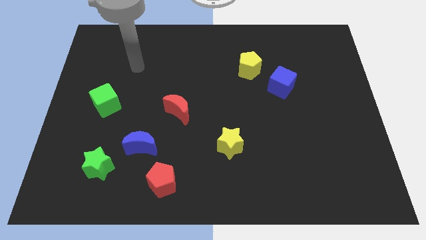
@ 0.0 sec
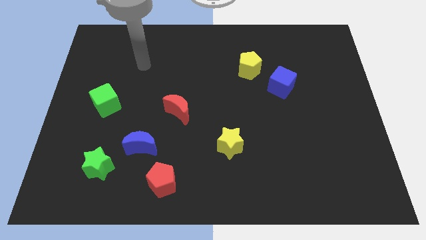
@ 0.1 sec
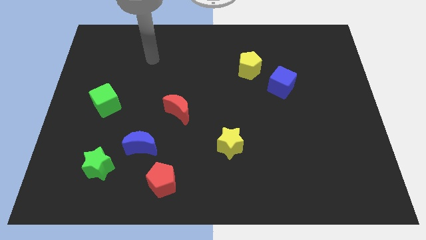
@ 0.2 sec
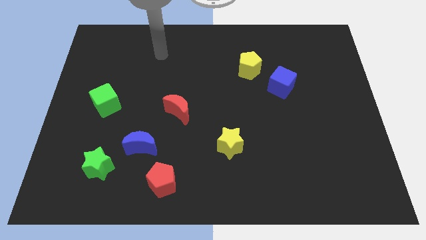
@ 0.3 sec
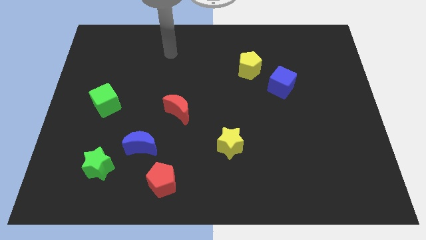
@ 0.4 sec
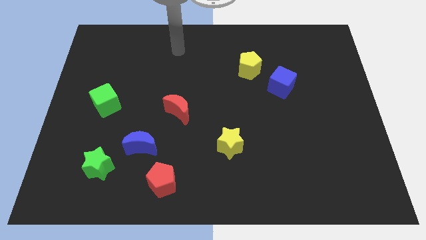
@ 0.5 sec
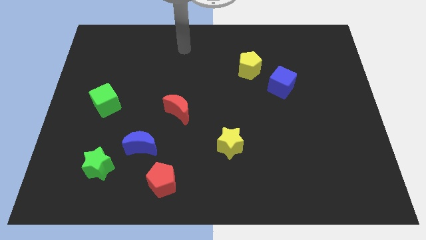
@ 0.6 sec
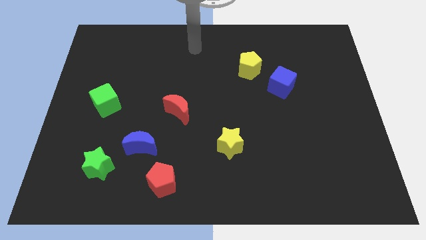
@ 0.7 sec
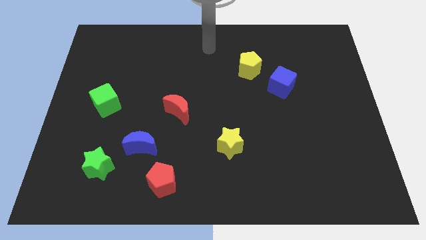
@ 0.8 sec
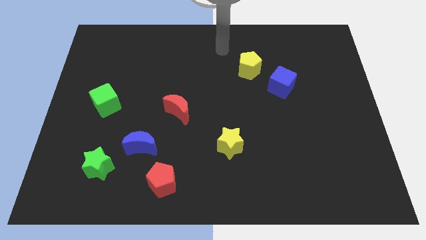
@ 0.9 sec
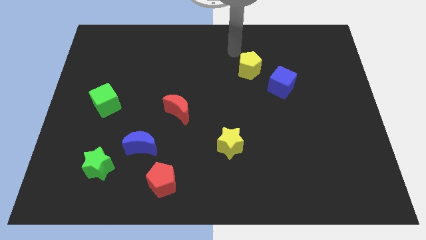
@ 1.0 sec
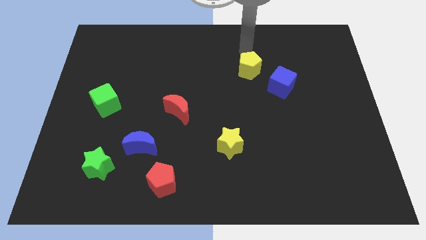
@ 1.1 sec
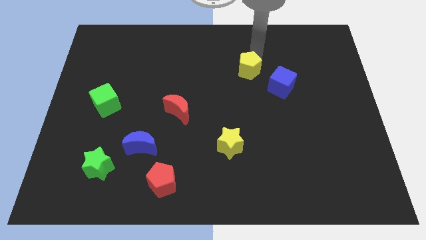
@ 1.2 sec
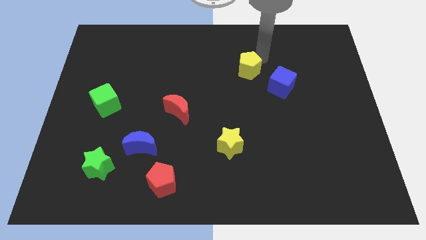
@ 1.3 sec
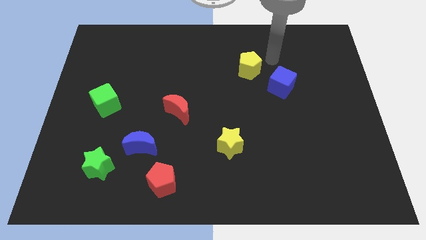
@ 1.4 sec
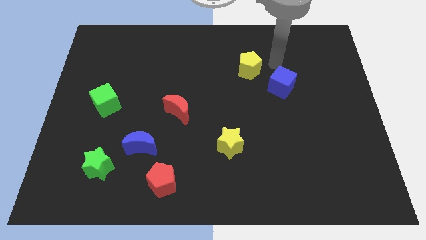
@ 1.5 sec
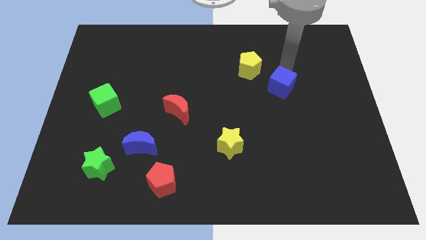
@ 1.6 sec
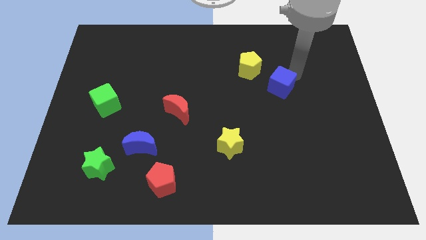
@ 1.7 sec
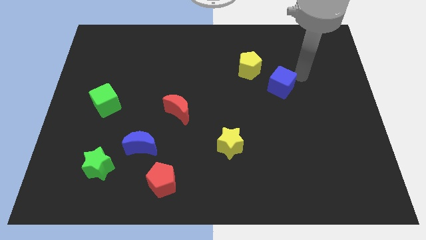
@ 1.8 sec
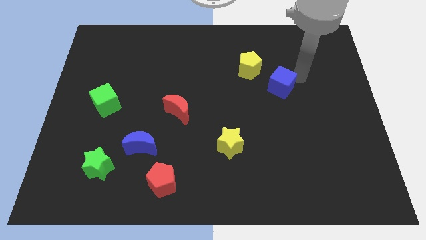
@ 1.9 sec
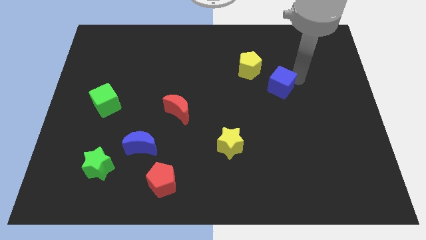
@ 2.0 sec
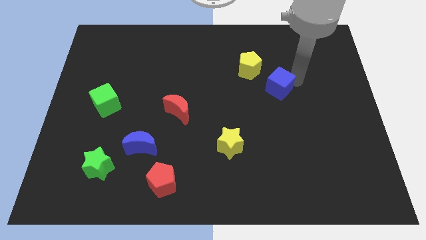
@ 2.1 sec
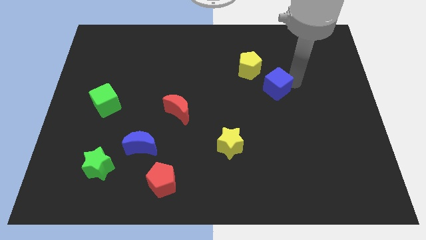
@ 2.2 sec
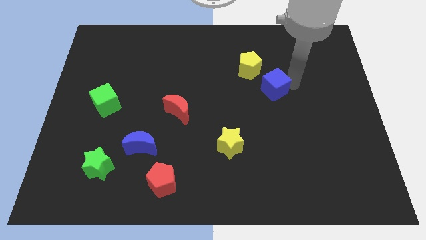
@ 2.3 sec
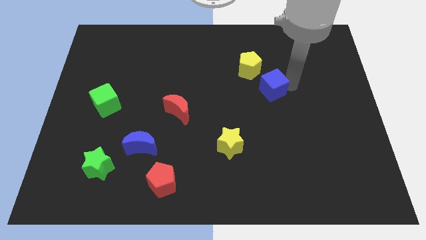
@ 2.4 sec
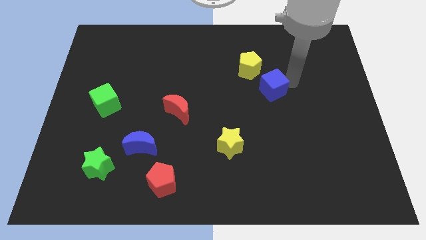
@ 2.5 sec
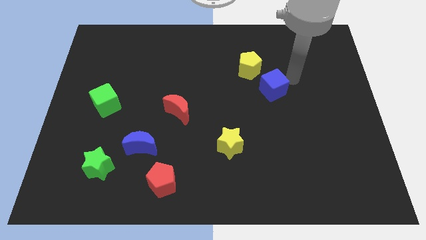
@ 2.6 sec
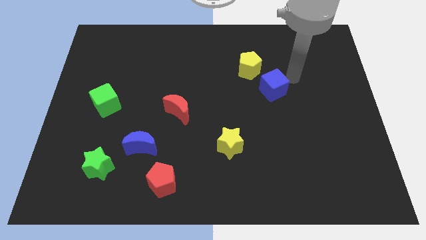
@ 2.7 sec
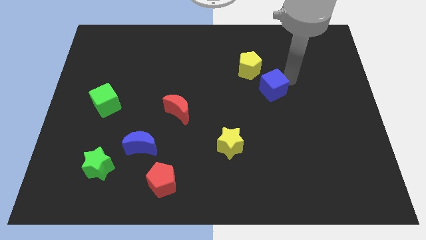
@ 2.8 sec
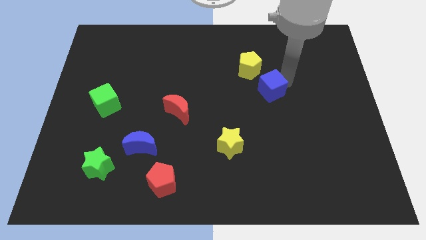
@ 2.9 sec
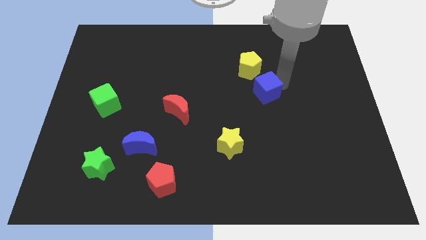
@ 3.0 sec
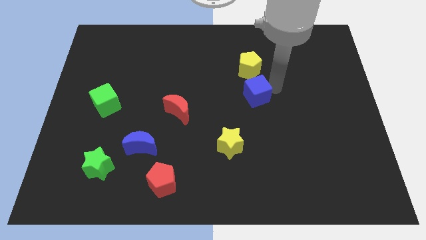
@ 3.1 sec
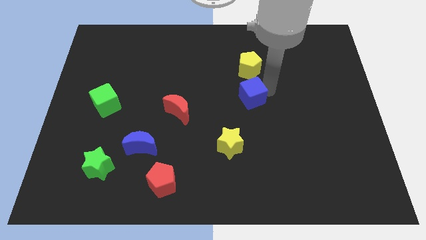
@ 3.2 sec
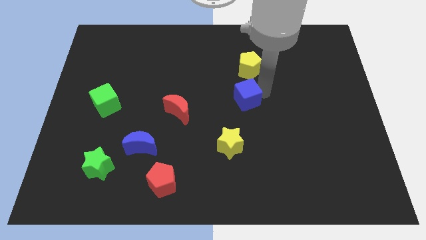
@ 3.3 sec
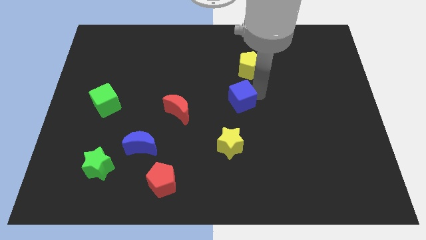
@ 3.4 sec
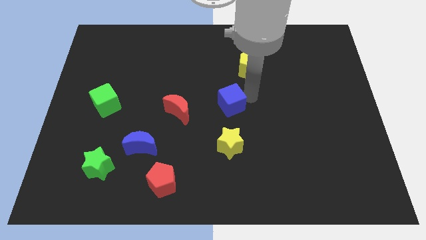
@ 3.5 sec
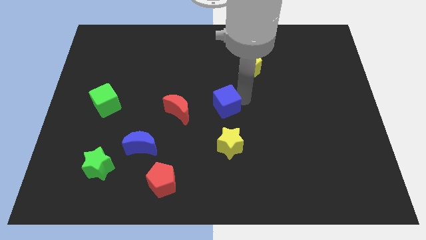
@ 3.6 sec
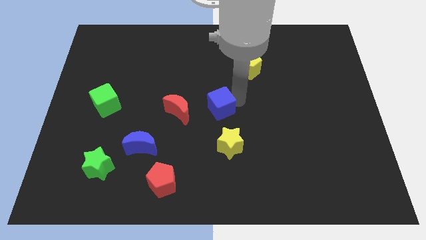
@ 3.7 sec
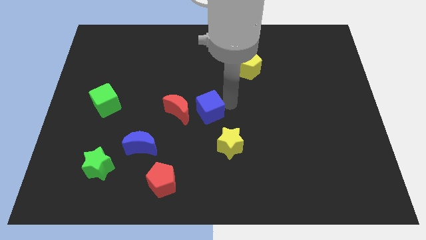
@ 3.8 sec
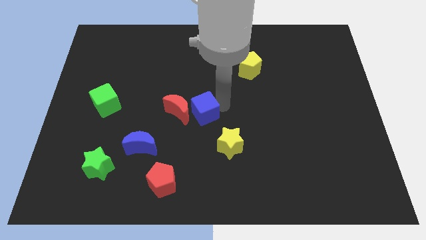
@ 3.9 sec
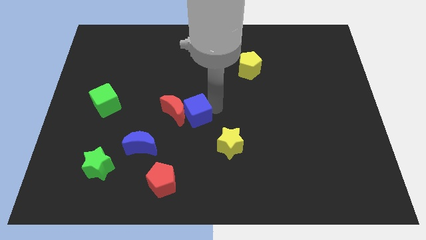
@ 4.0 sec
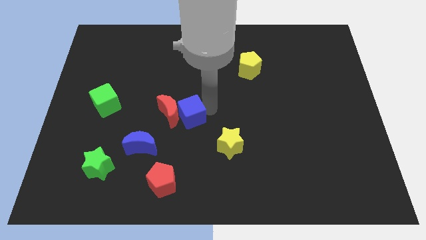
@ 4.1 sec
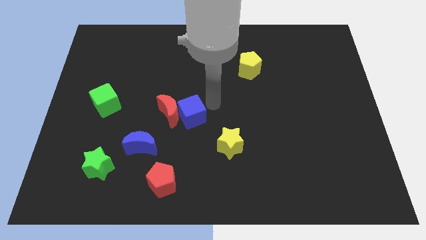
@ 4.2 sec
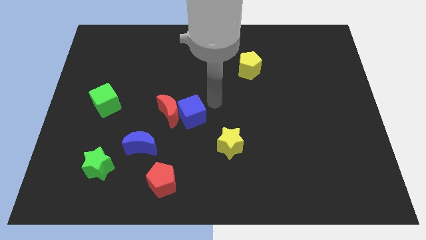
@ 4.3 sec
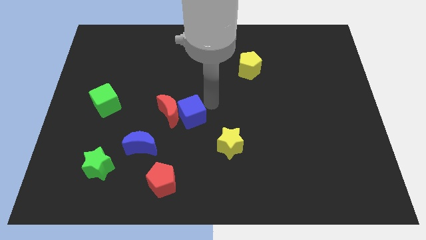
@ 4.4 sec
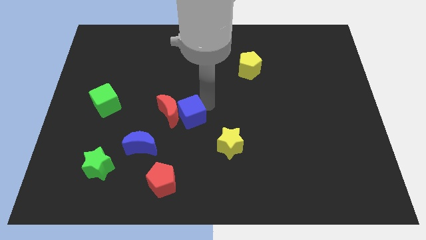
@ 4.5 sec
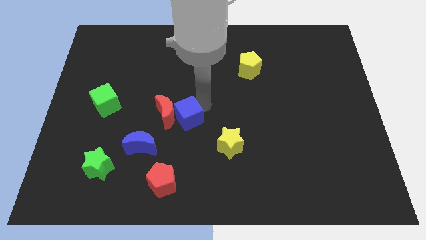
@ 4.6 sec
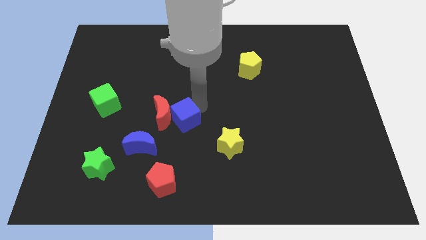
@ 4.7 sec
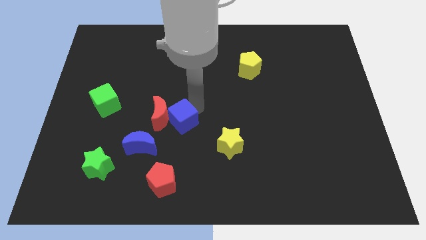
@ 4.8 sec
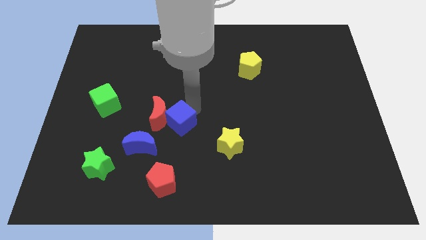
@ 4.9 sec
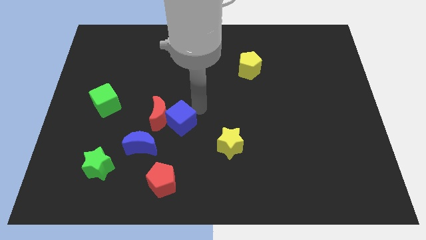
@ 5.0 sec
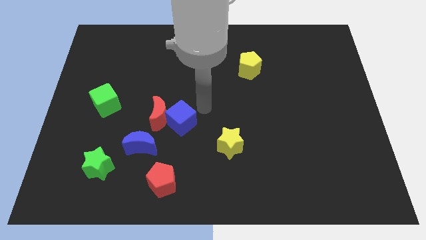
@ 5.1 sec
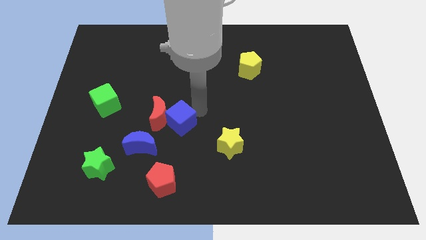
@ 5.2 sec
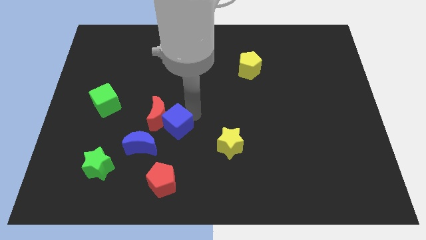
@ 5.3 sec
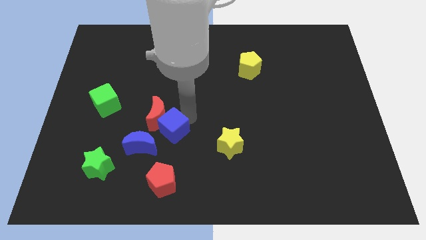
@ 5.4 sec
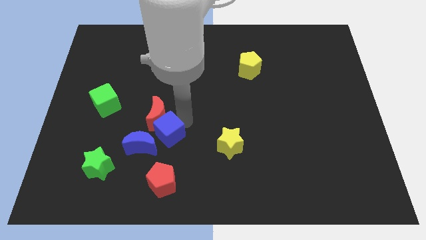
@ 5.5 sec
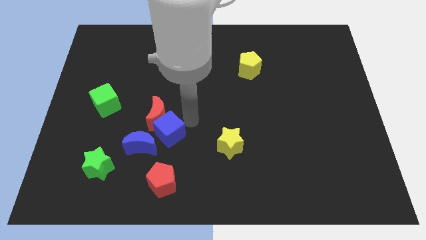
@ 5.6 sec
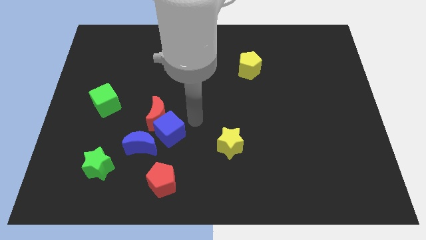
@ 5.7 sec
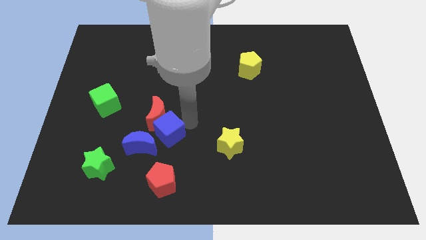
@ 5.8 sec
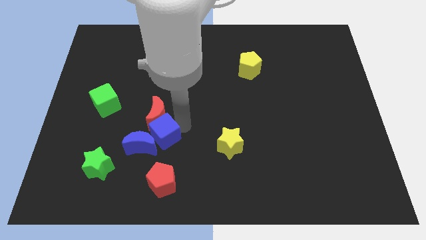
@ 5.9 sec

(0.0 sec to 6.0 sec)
move the blue cube towards the blue moon

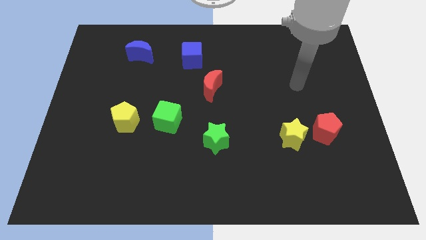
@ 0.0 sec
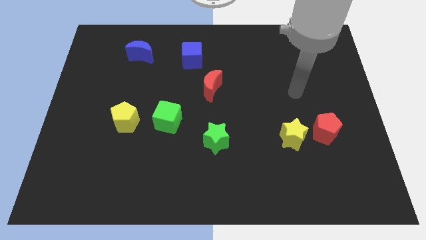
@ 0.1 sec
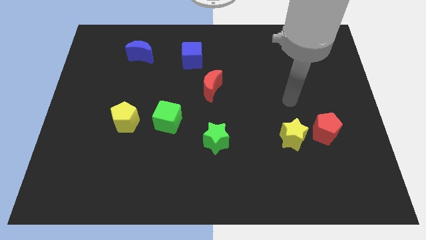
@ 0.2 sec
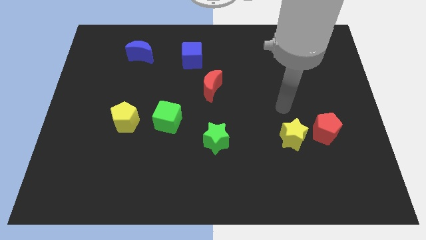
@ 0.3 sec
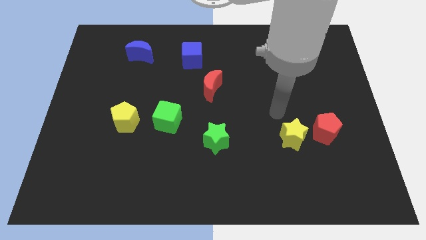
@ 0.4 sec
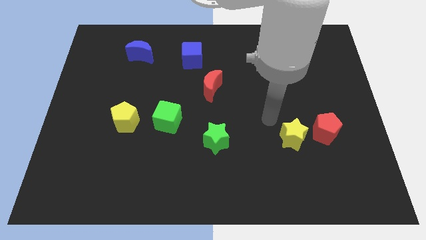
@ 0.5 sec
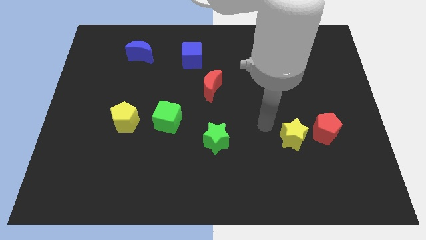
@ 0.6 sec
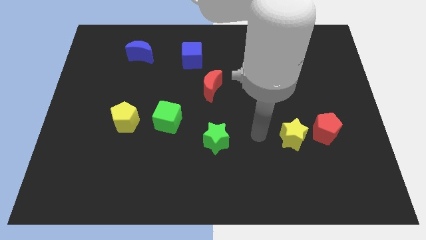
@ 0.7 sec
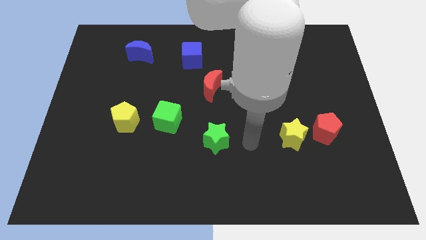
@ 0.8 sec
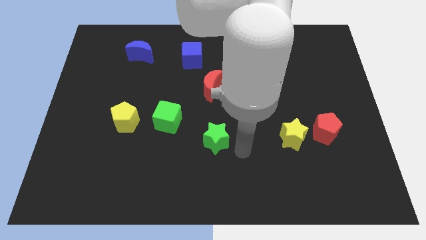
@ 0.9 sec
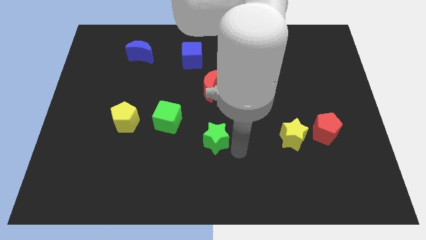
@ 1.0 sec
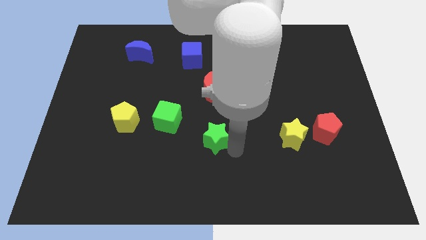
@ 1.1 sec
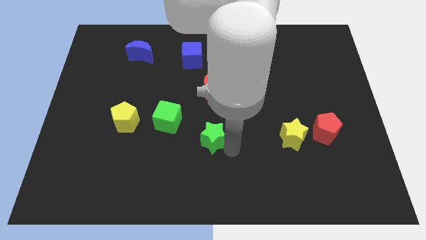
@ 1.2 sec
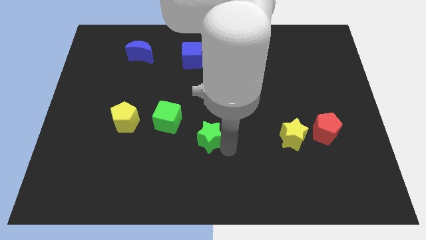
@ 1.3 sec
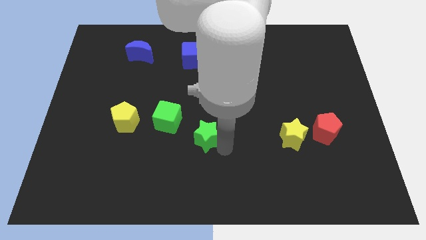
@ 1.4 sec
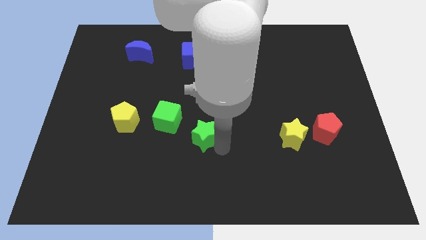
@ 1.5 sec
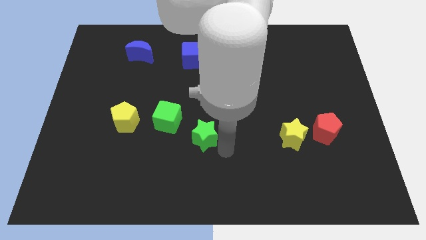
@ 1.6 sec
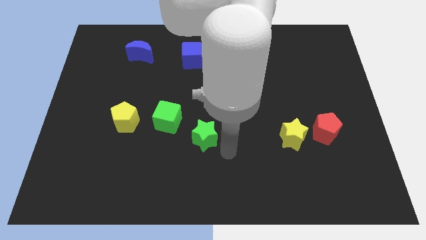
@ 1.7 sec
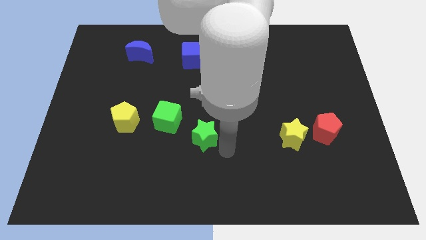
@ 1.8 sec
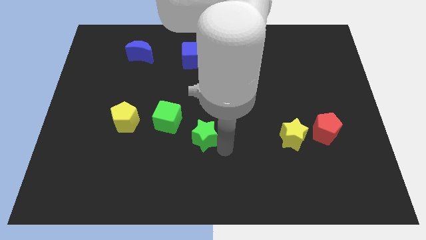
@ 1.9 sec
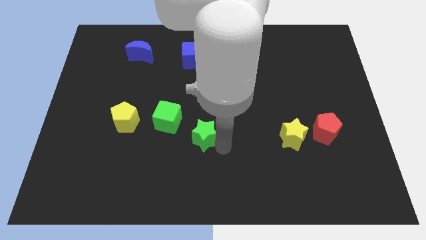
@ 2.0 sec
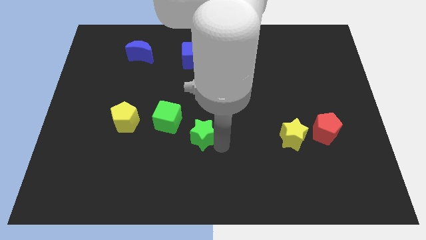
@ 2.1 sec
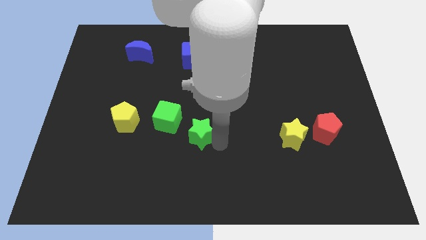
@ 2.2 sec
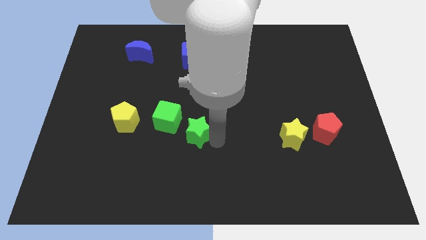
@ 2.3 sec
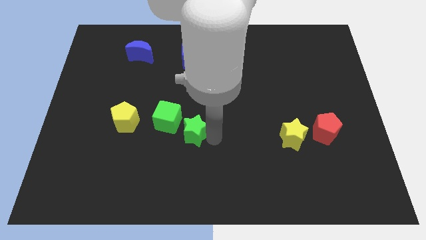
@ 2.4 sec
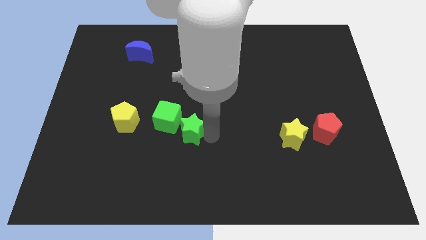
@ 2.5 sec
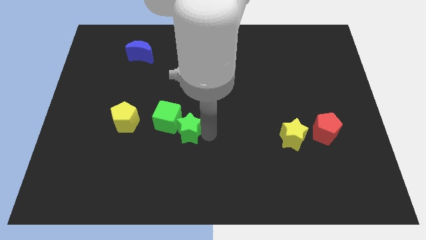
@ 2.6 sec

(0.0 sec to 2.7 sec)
move the green star close to the green cube
